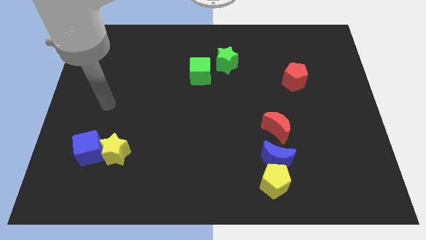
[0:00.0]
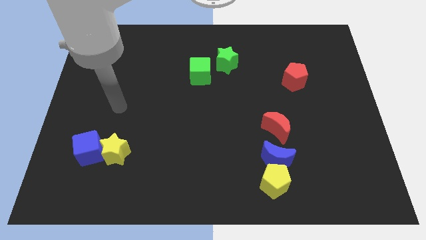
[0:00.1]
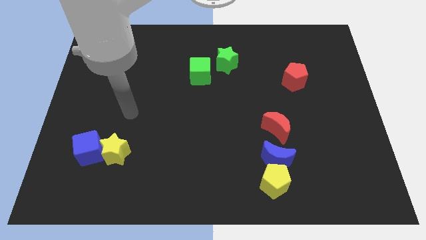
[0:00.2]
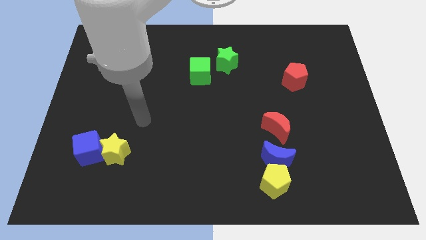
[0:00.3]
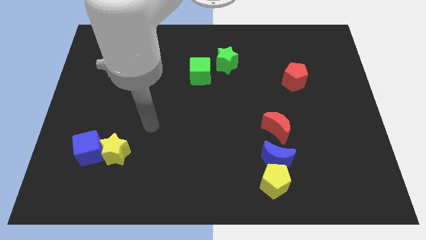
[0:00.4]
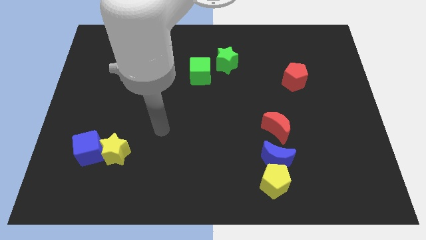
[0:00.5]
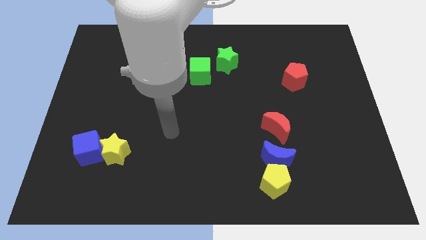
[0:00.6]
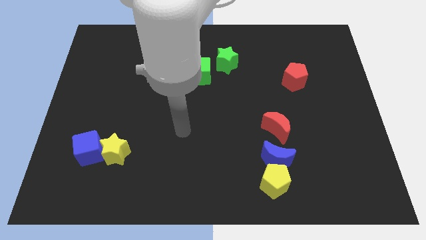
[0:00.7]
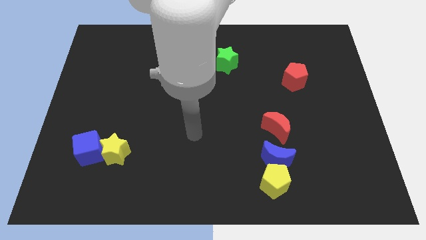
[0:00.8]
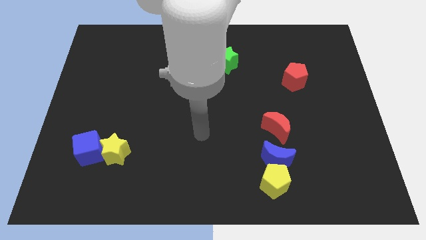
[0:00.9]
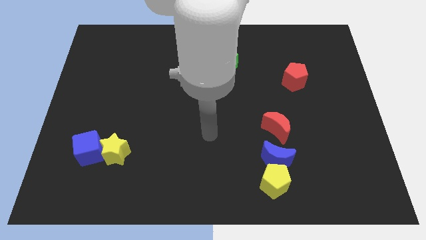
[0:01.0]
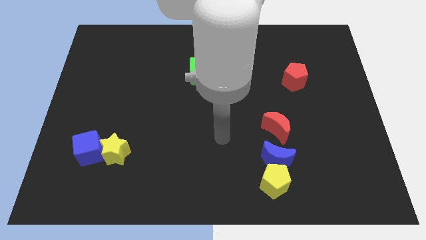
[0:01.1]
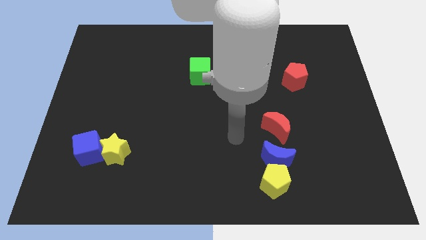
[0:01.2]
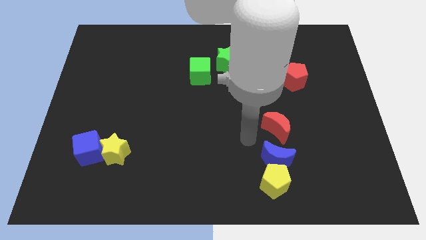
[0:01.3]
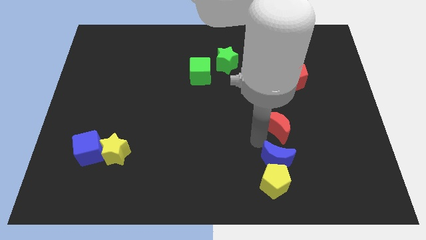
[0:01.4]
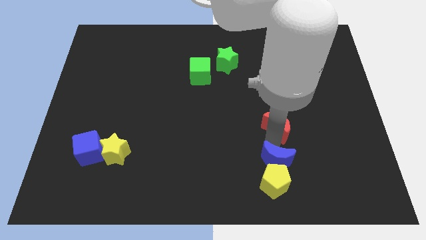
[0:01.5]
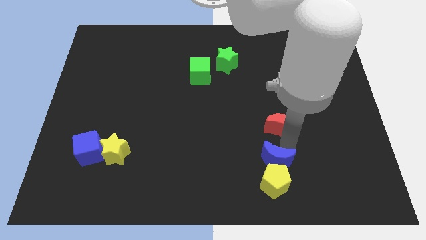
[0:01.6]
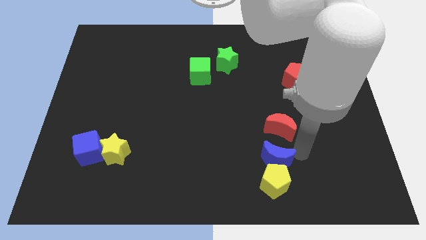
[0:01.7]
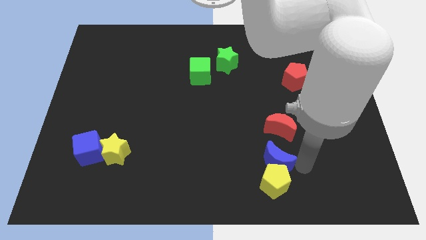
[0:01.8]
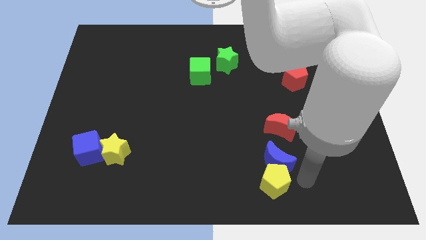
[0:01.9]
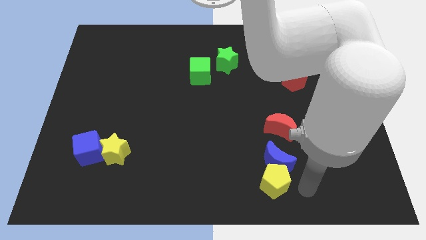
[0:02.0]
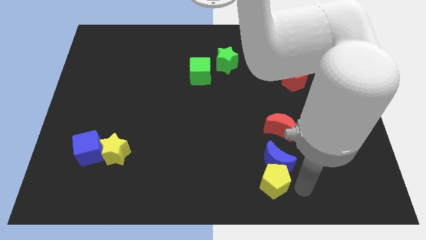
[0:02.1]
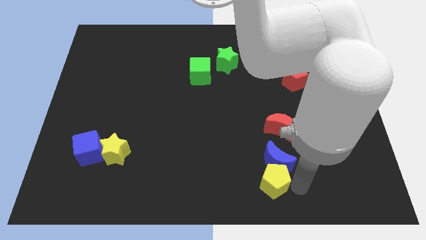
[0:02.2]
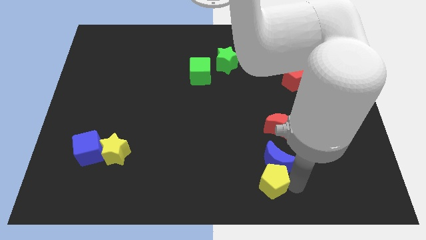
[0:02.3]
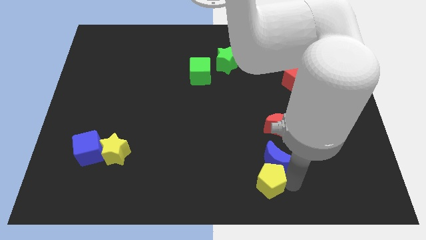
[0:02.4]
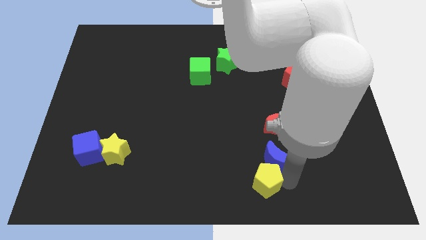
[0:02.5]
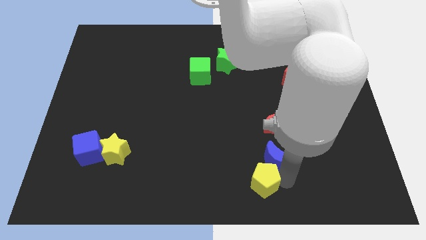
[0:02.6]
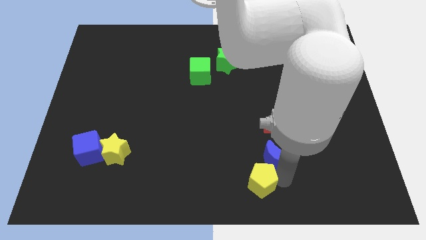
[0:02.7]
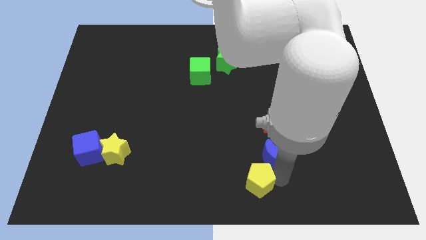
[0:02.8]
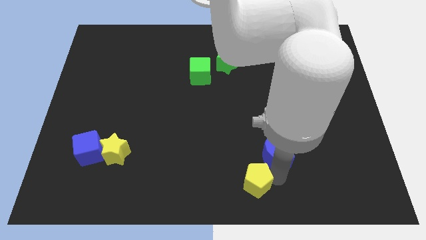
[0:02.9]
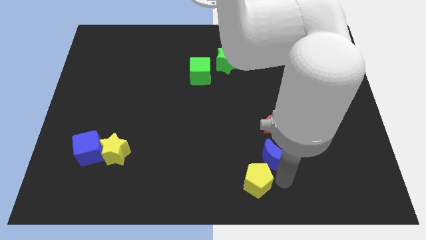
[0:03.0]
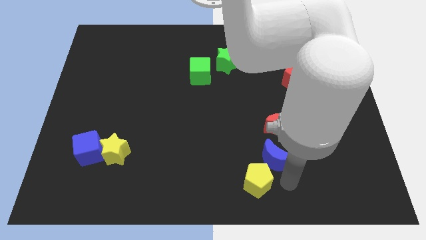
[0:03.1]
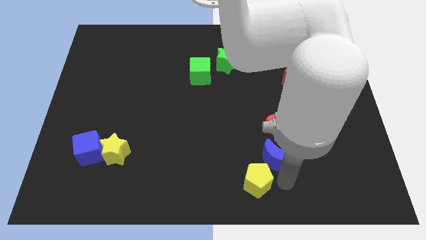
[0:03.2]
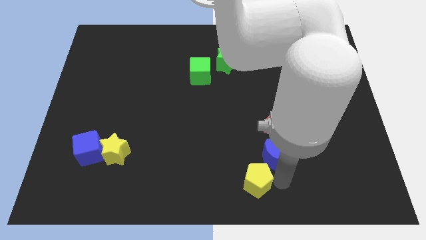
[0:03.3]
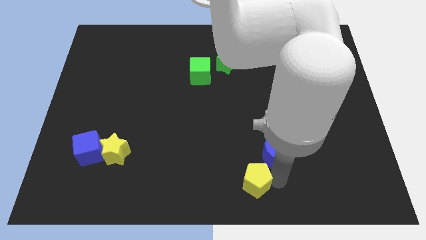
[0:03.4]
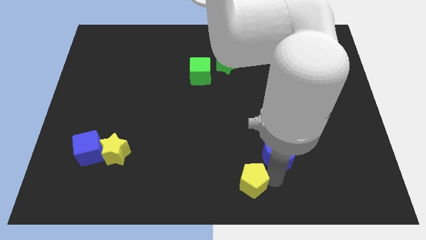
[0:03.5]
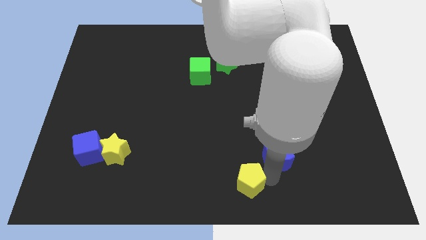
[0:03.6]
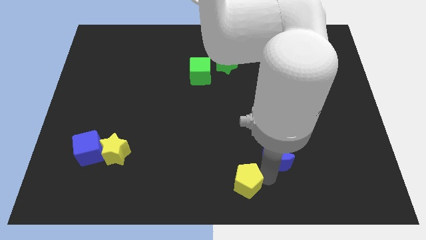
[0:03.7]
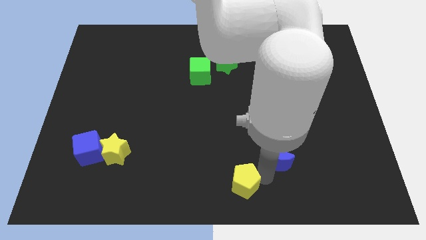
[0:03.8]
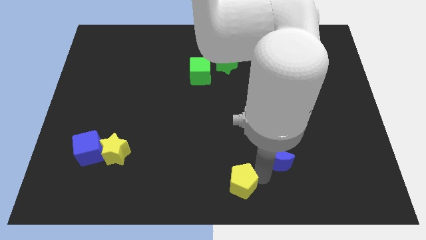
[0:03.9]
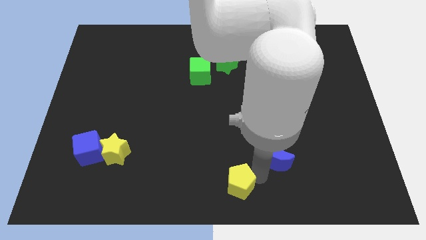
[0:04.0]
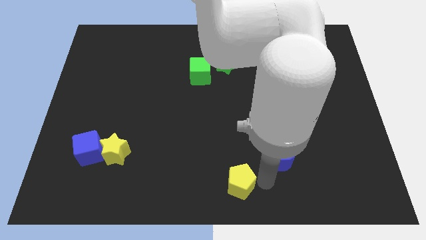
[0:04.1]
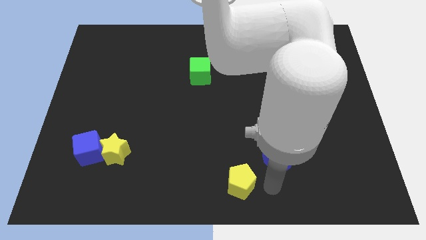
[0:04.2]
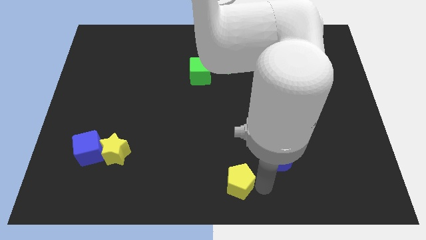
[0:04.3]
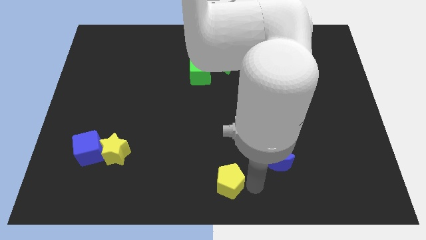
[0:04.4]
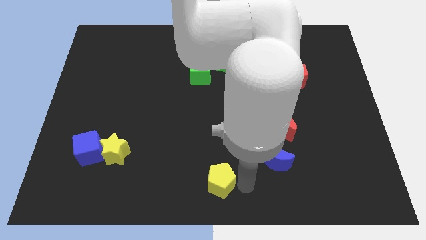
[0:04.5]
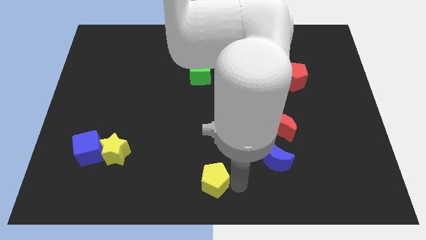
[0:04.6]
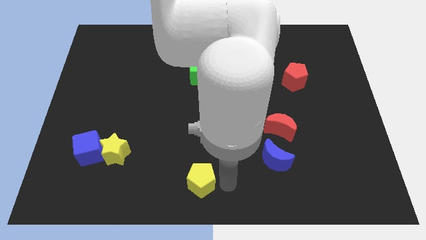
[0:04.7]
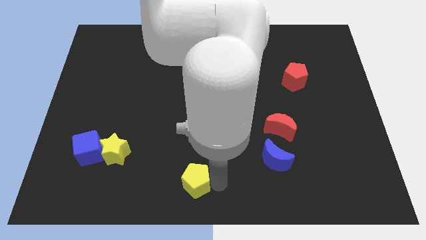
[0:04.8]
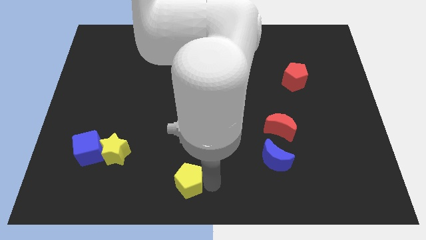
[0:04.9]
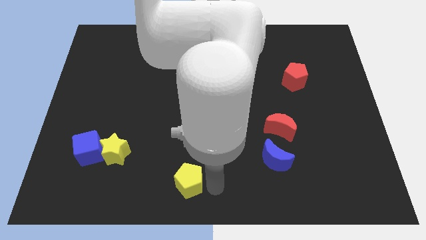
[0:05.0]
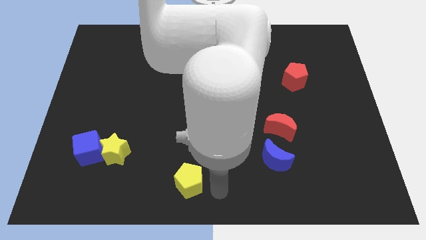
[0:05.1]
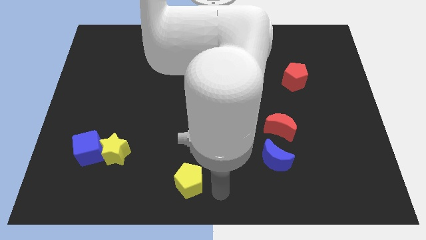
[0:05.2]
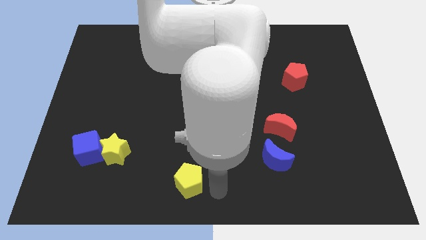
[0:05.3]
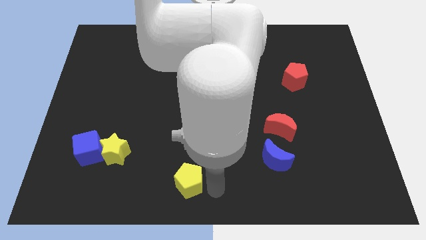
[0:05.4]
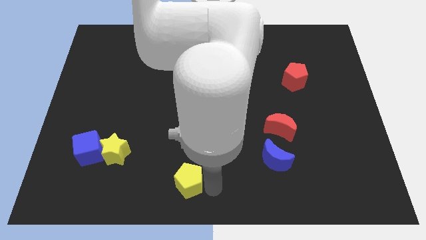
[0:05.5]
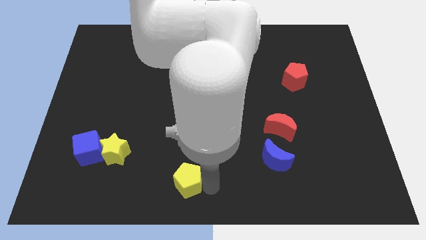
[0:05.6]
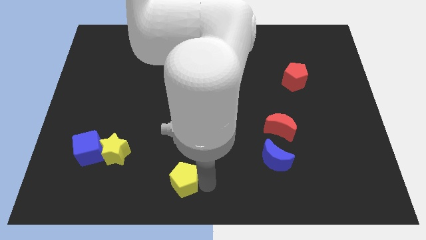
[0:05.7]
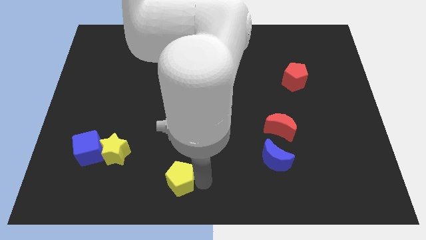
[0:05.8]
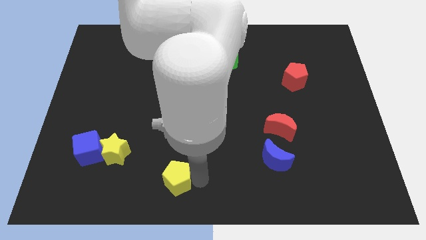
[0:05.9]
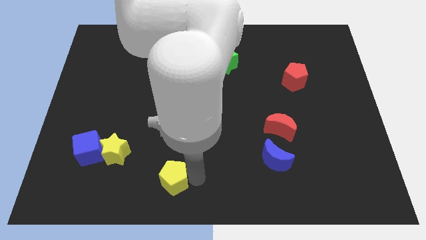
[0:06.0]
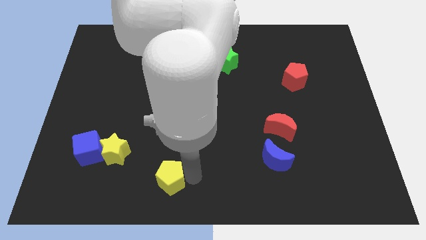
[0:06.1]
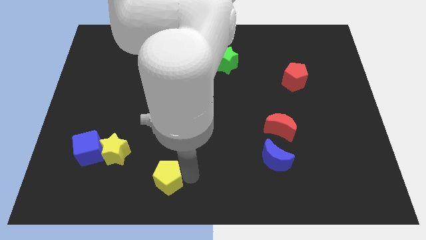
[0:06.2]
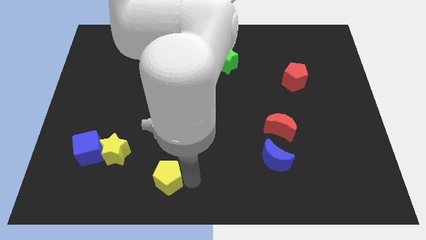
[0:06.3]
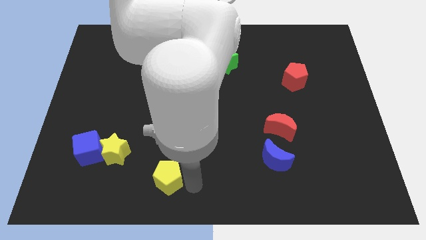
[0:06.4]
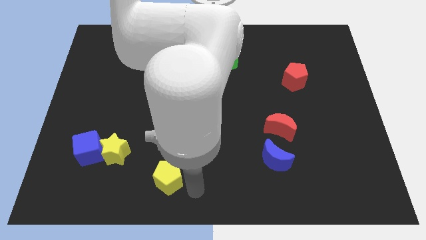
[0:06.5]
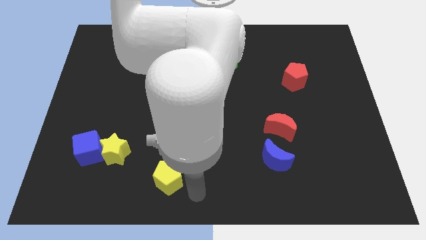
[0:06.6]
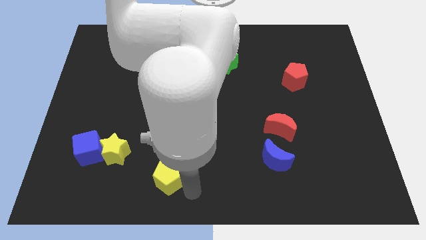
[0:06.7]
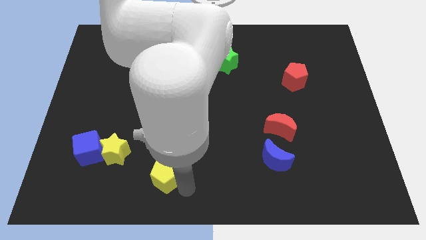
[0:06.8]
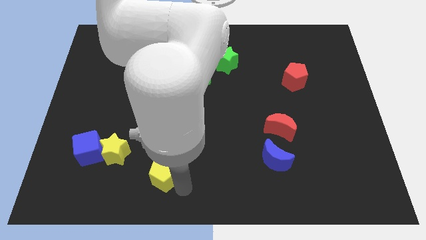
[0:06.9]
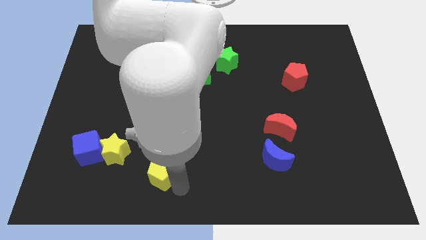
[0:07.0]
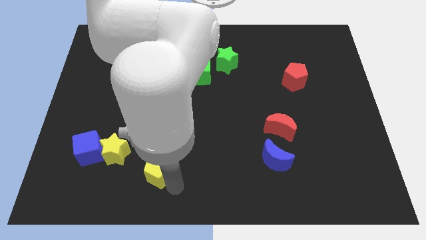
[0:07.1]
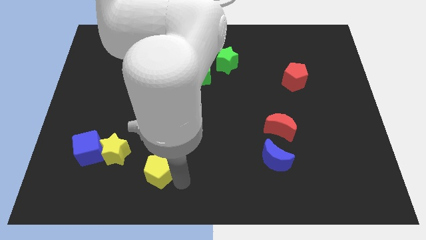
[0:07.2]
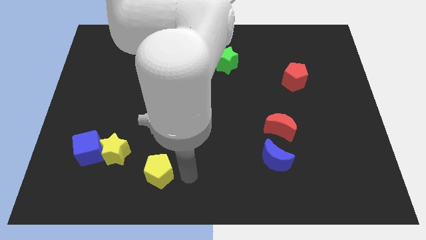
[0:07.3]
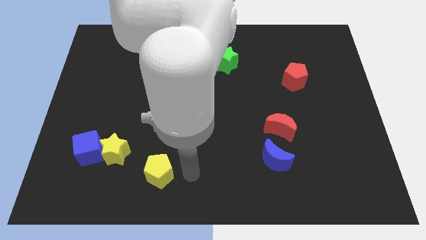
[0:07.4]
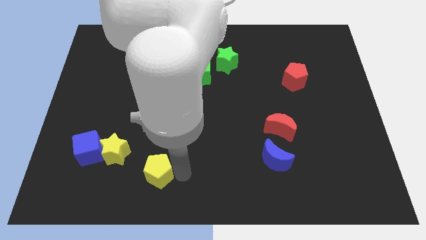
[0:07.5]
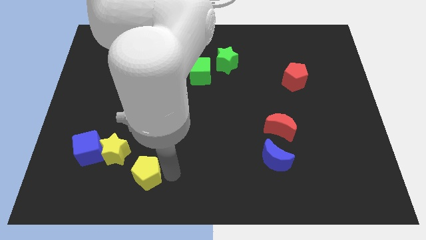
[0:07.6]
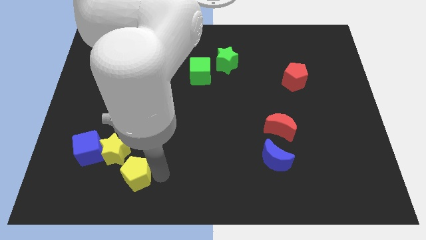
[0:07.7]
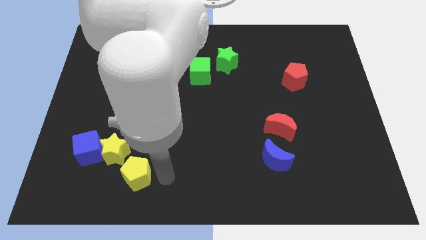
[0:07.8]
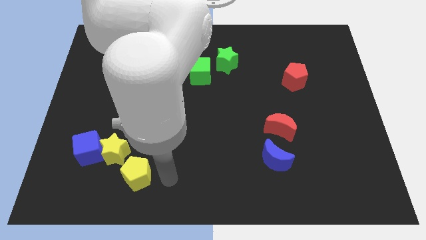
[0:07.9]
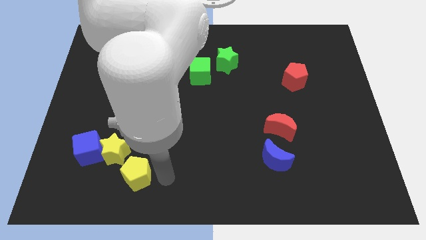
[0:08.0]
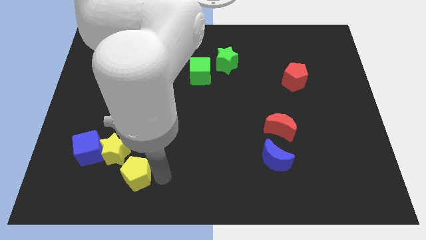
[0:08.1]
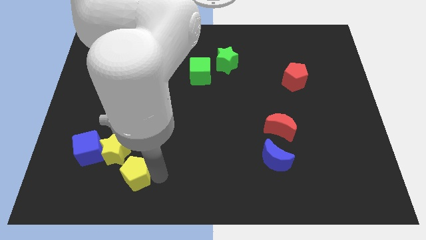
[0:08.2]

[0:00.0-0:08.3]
push the yellow pentagon diagonally down and to the right of the blue cube
